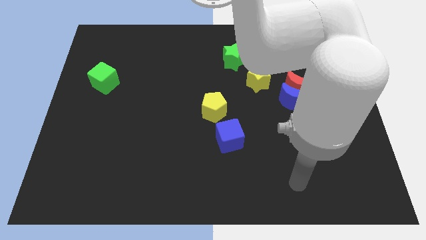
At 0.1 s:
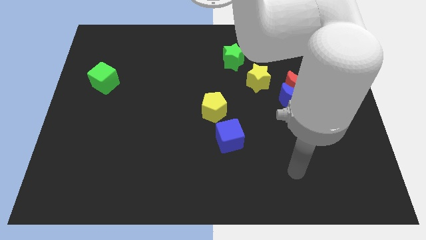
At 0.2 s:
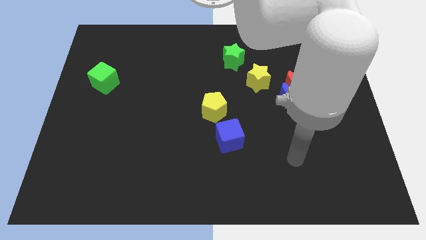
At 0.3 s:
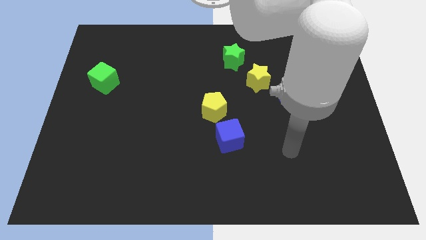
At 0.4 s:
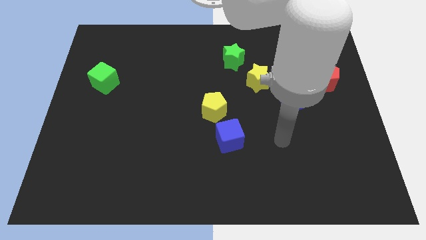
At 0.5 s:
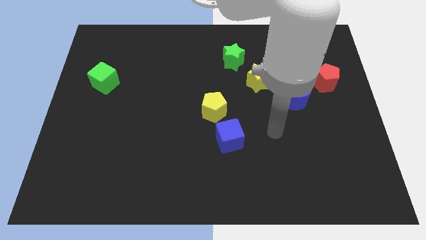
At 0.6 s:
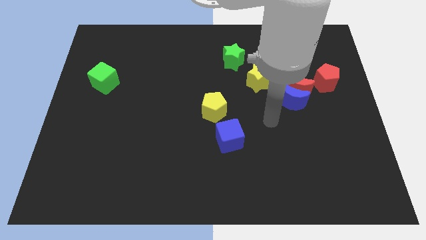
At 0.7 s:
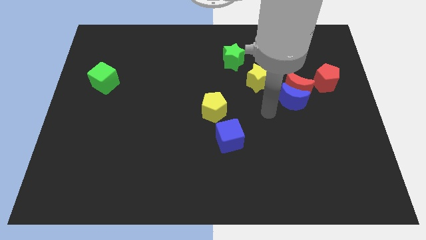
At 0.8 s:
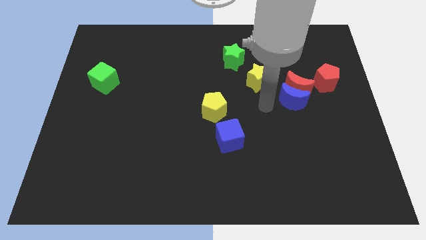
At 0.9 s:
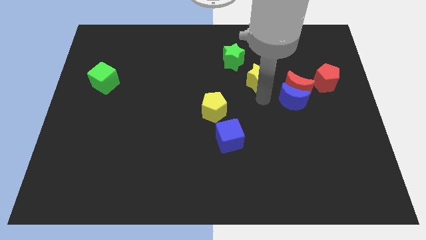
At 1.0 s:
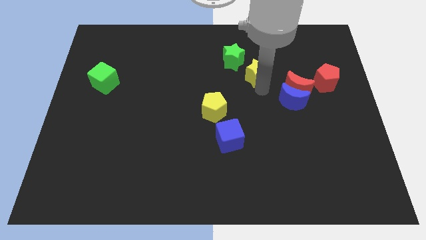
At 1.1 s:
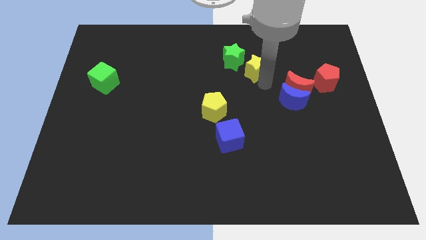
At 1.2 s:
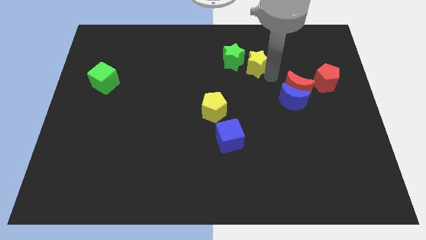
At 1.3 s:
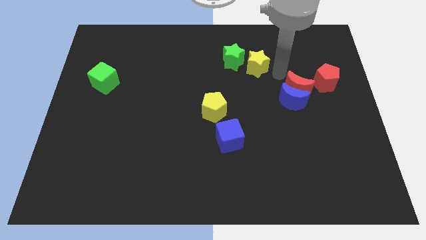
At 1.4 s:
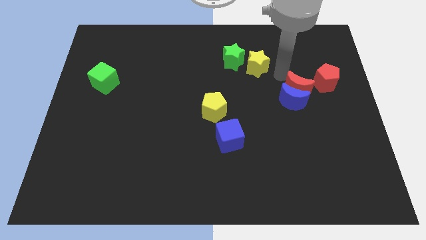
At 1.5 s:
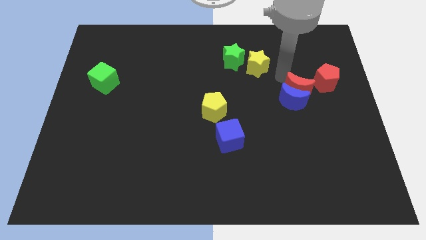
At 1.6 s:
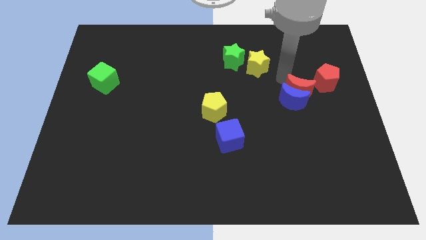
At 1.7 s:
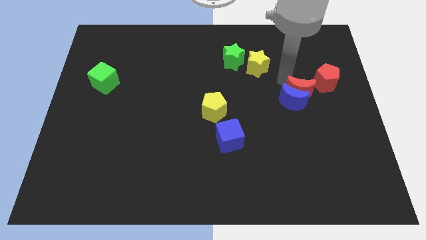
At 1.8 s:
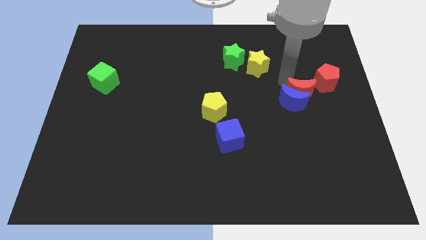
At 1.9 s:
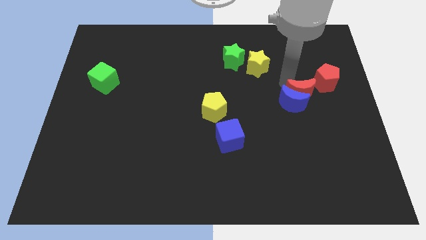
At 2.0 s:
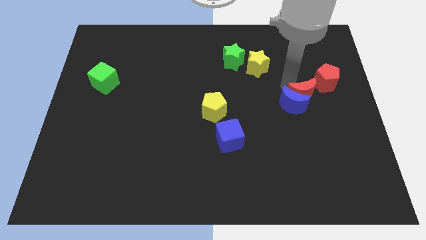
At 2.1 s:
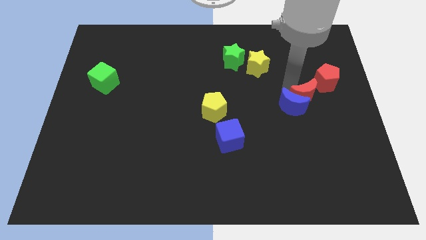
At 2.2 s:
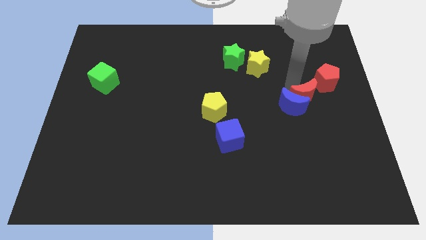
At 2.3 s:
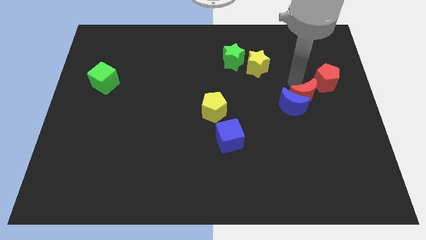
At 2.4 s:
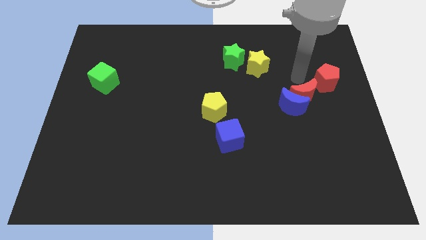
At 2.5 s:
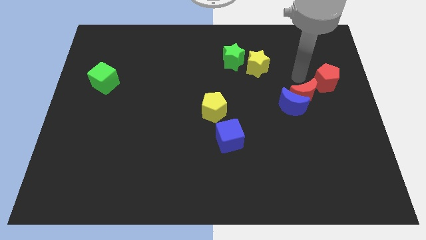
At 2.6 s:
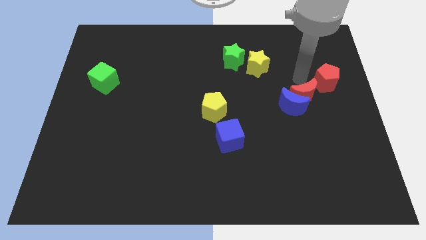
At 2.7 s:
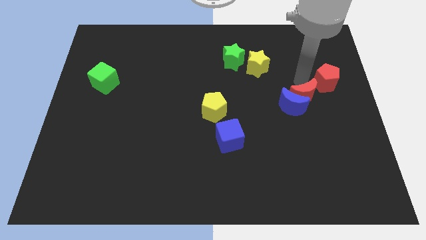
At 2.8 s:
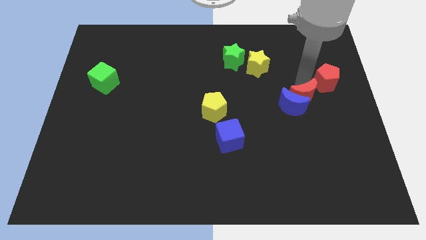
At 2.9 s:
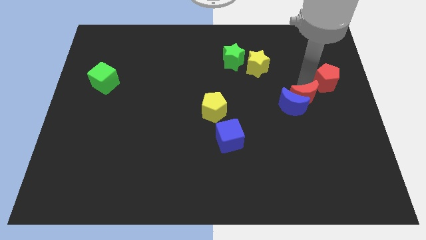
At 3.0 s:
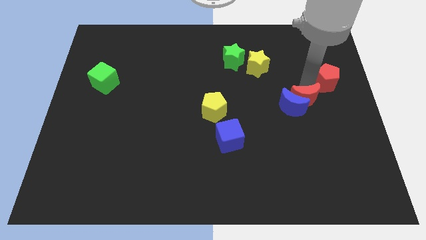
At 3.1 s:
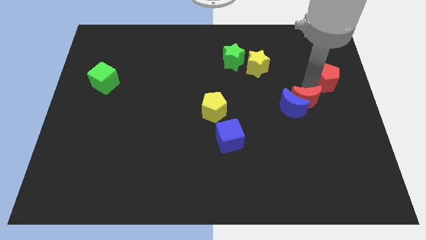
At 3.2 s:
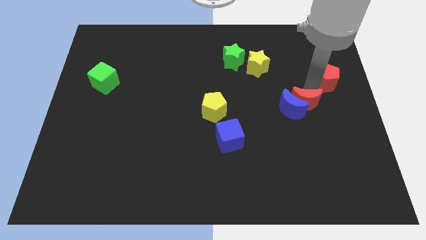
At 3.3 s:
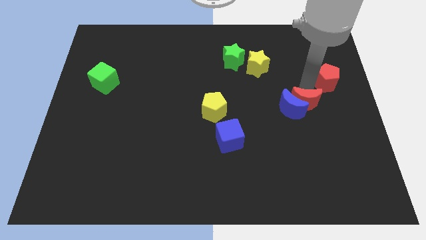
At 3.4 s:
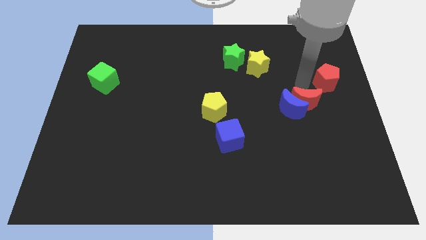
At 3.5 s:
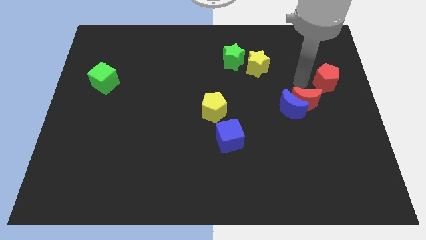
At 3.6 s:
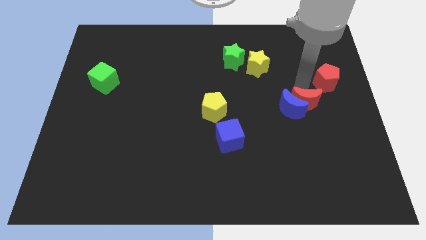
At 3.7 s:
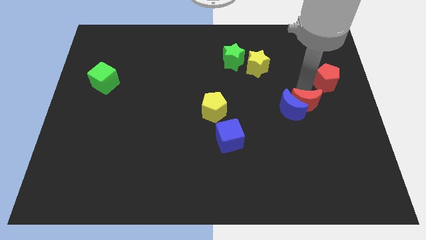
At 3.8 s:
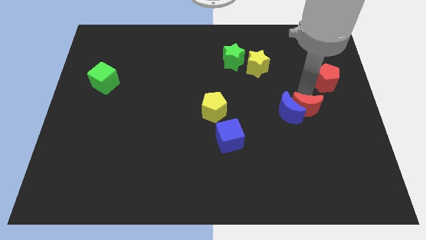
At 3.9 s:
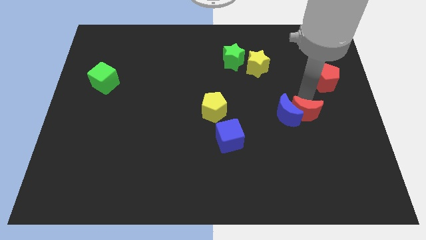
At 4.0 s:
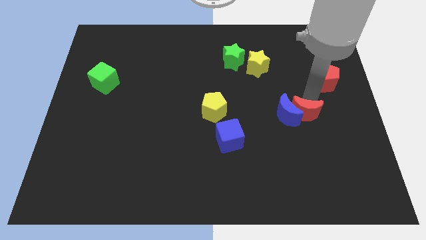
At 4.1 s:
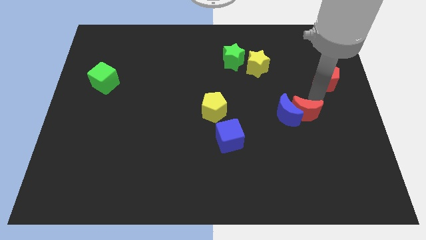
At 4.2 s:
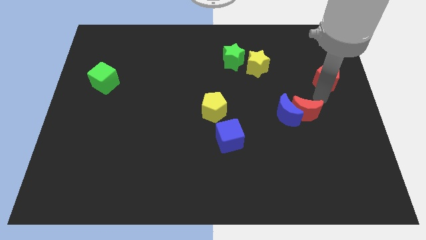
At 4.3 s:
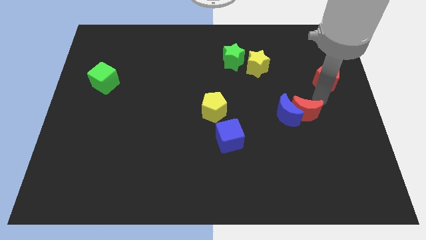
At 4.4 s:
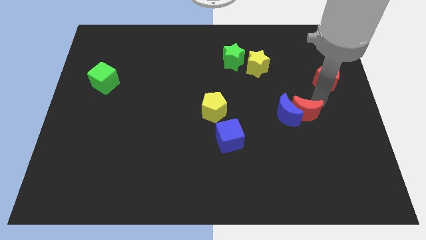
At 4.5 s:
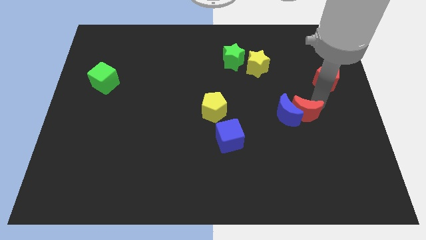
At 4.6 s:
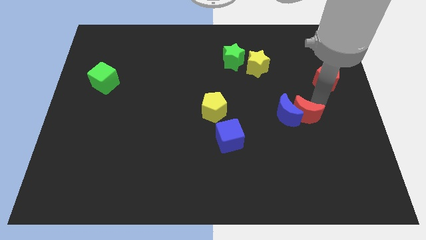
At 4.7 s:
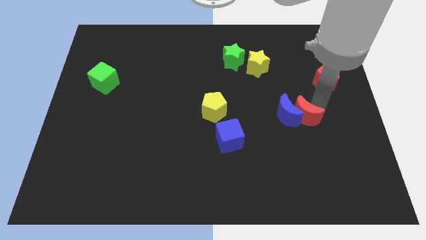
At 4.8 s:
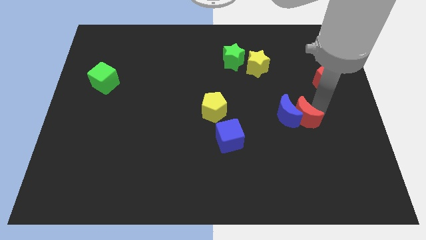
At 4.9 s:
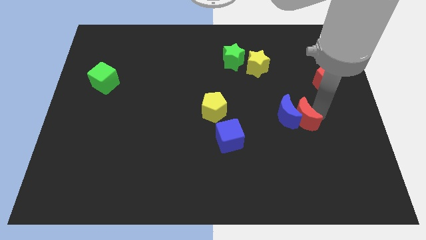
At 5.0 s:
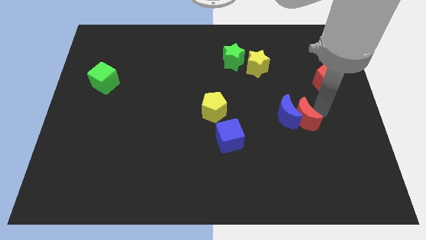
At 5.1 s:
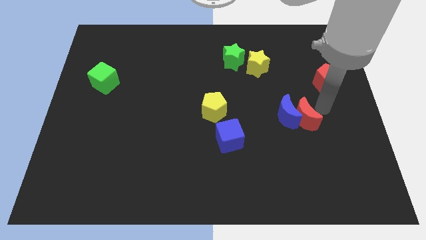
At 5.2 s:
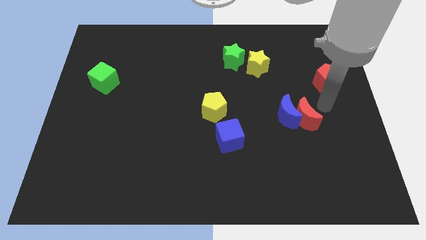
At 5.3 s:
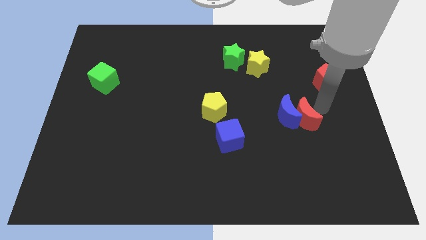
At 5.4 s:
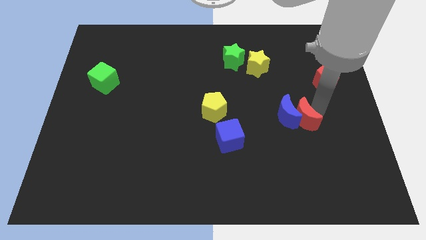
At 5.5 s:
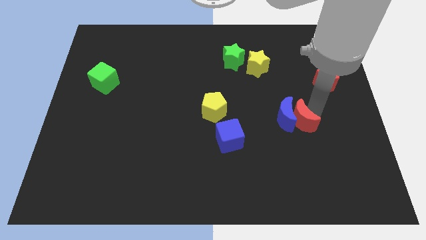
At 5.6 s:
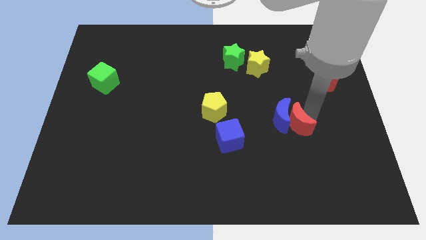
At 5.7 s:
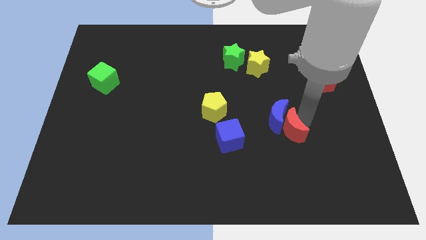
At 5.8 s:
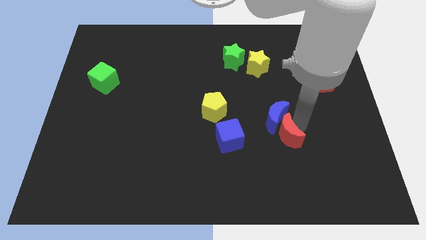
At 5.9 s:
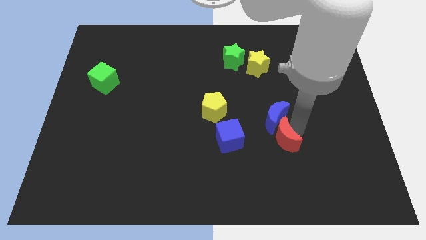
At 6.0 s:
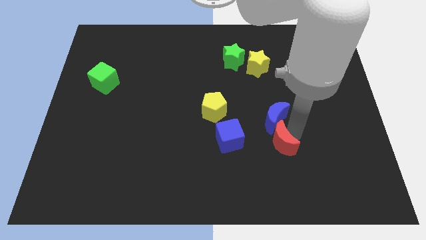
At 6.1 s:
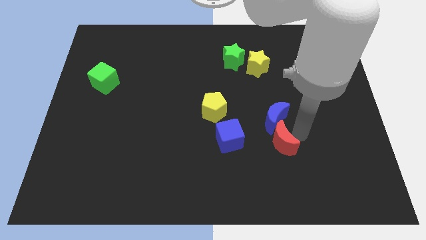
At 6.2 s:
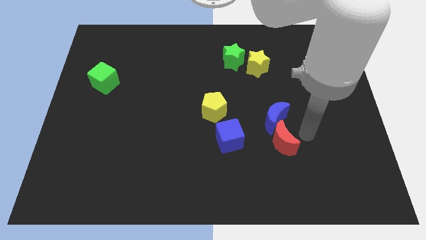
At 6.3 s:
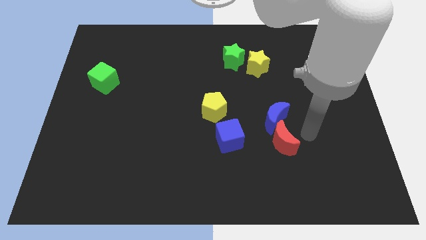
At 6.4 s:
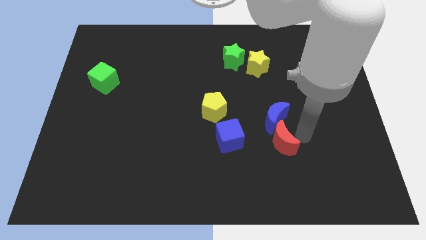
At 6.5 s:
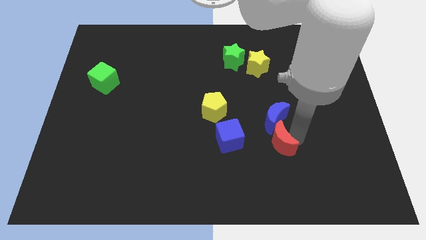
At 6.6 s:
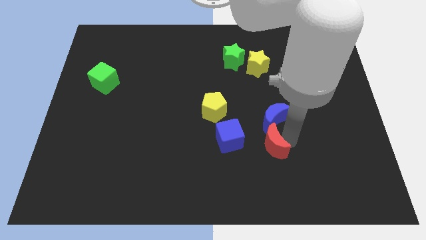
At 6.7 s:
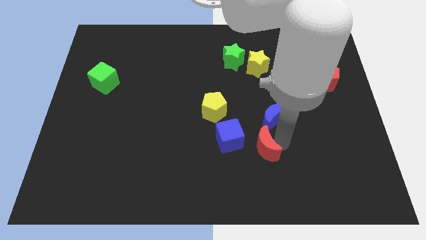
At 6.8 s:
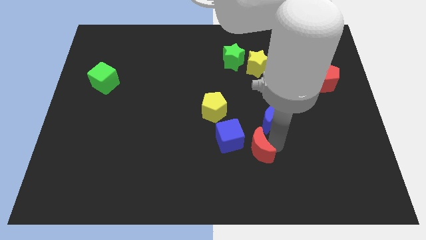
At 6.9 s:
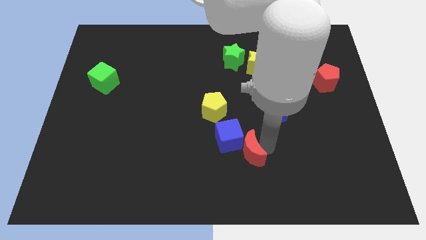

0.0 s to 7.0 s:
slide the red moon diagonally downwards and left

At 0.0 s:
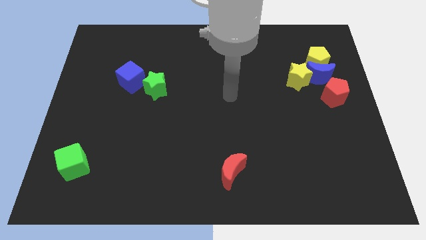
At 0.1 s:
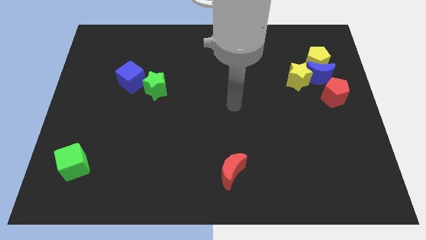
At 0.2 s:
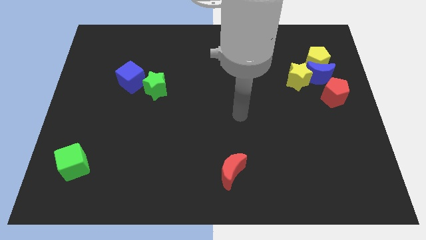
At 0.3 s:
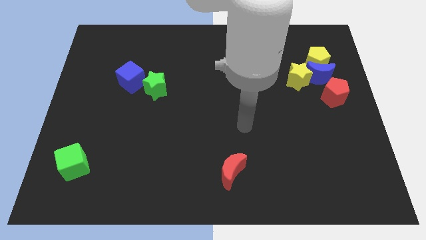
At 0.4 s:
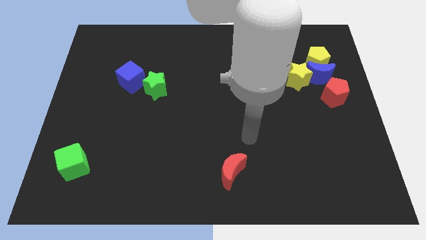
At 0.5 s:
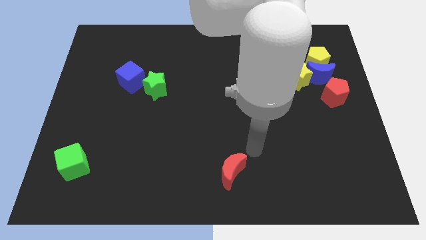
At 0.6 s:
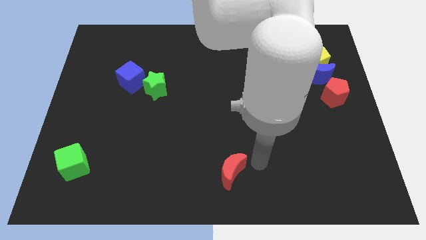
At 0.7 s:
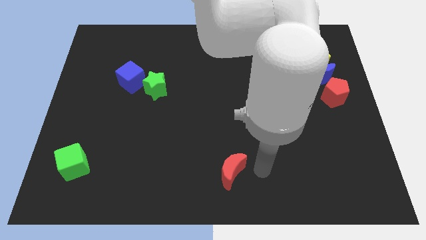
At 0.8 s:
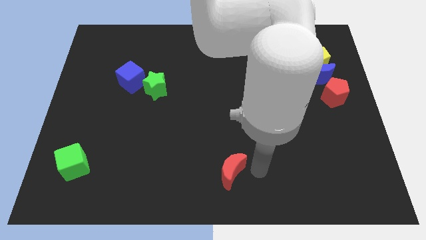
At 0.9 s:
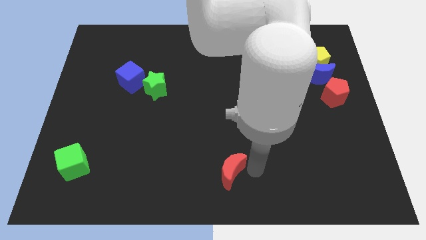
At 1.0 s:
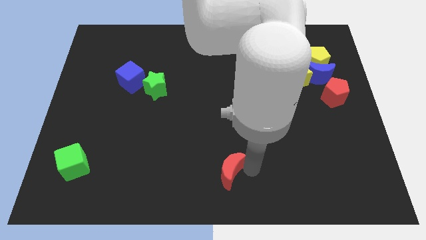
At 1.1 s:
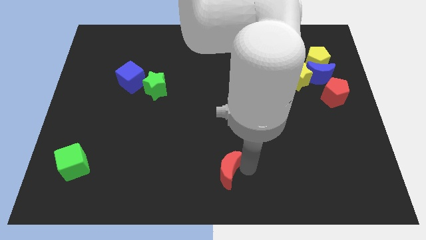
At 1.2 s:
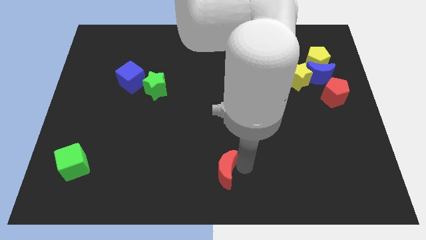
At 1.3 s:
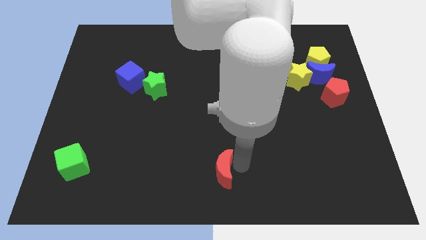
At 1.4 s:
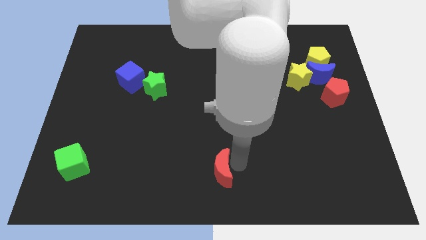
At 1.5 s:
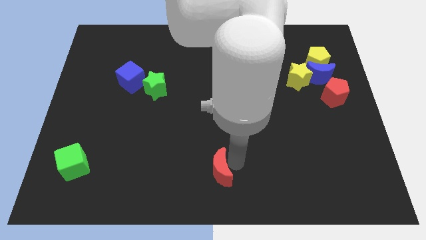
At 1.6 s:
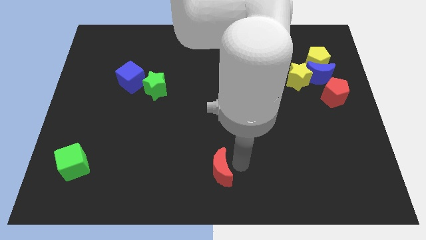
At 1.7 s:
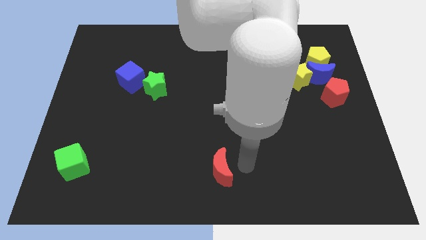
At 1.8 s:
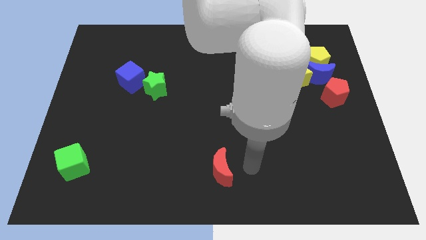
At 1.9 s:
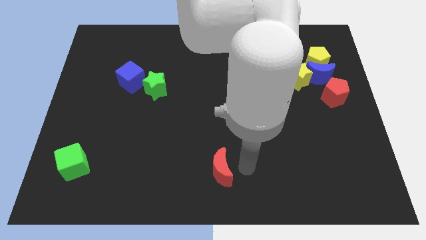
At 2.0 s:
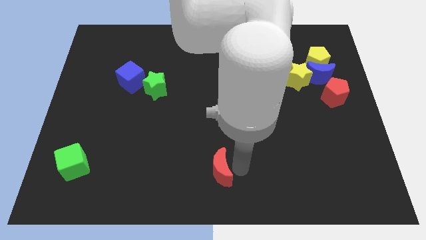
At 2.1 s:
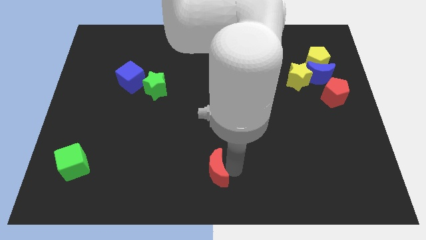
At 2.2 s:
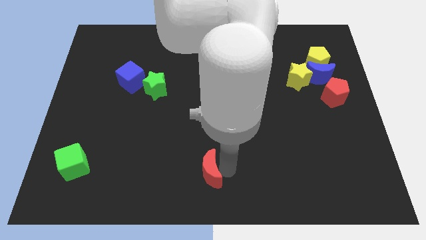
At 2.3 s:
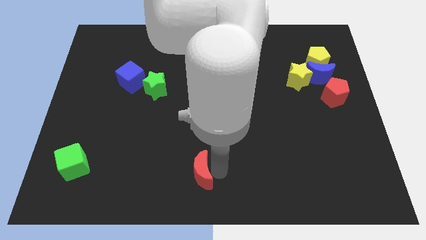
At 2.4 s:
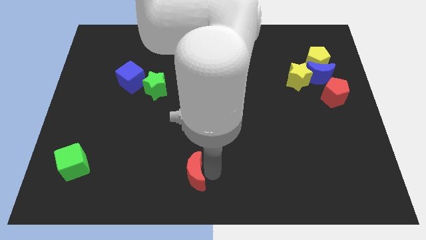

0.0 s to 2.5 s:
slightly slide the red moon to the left
